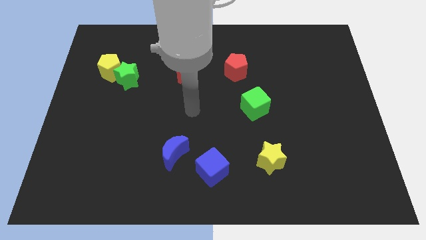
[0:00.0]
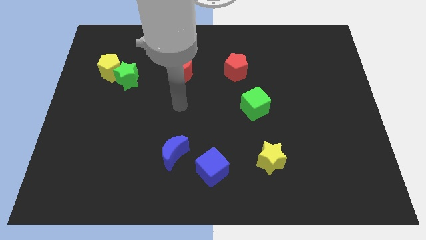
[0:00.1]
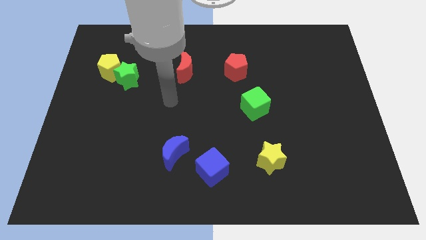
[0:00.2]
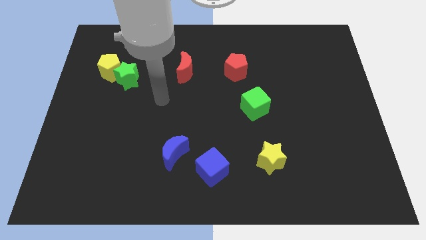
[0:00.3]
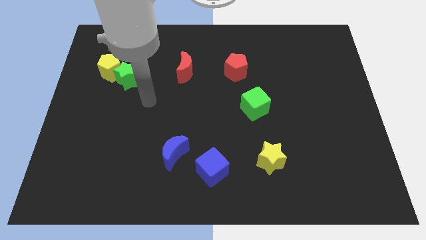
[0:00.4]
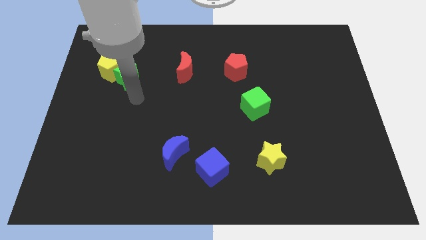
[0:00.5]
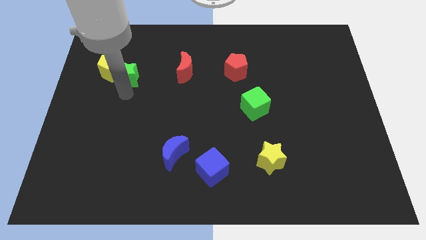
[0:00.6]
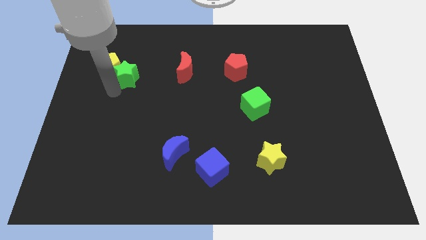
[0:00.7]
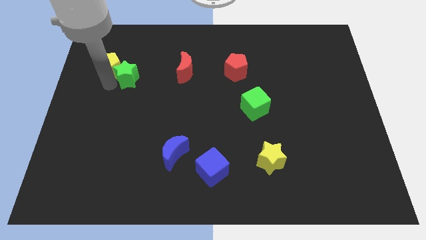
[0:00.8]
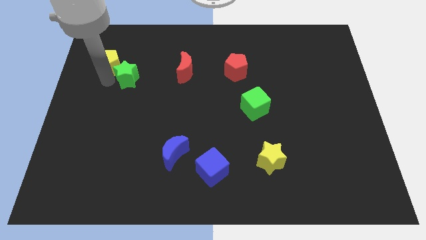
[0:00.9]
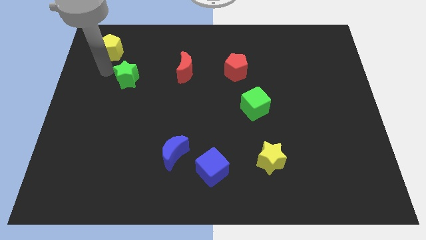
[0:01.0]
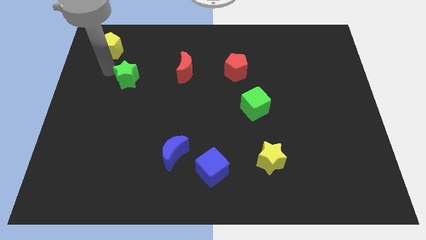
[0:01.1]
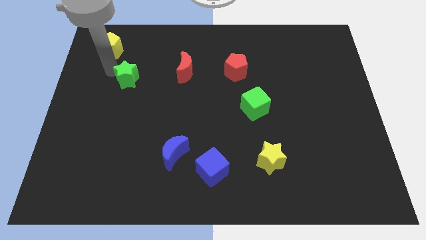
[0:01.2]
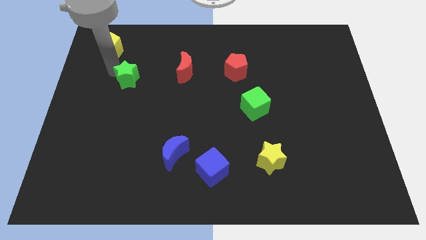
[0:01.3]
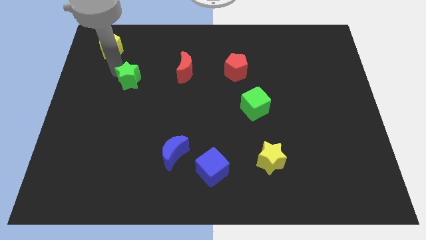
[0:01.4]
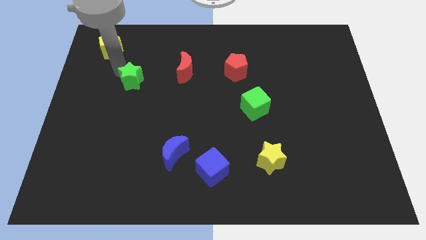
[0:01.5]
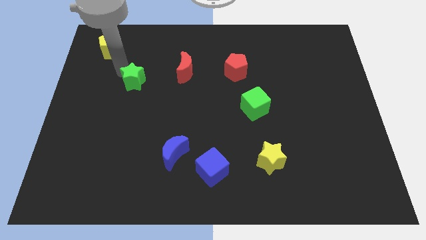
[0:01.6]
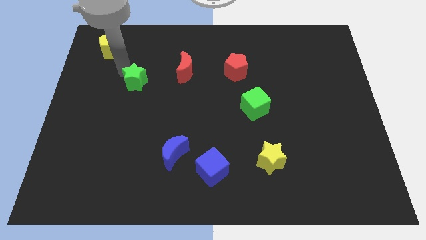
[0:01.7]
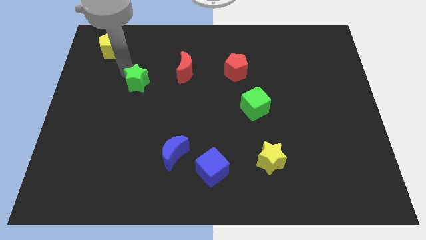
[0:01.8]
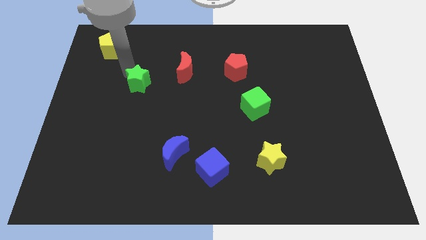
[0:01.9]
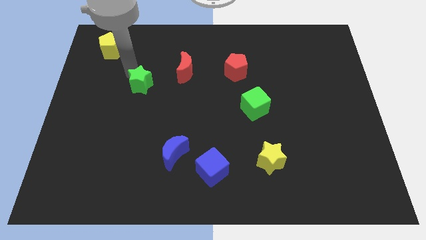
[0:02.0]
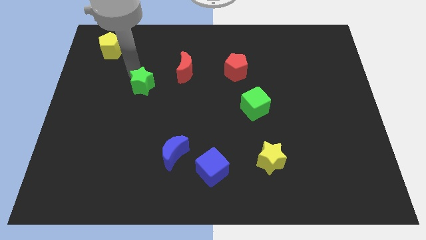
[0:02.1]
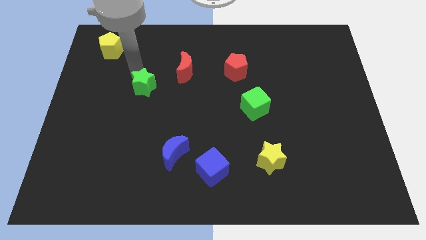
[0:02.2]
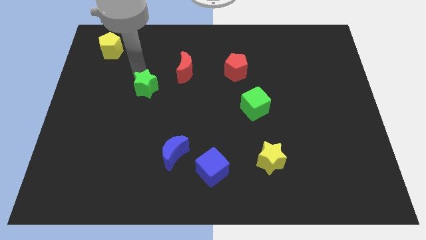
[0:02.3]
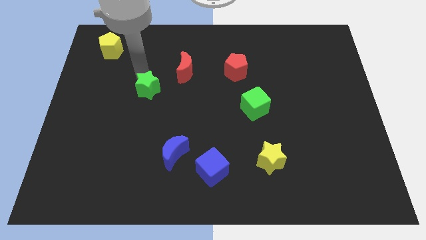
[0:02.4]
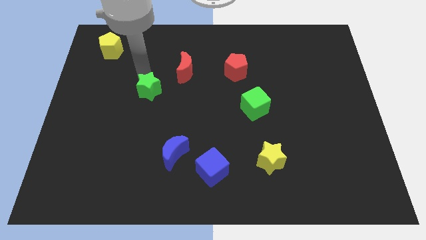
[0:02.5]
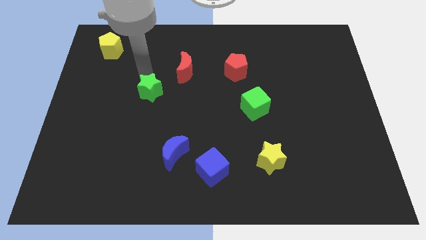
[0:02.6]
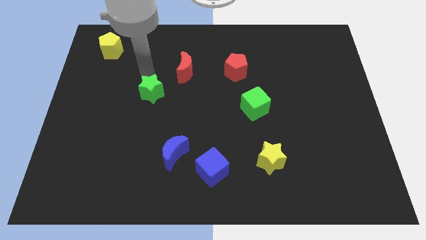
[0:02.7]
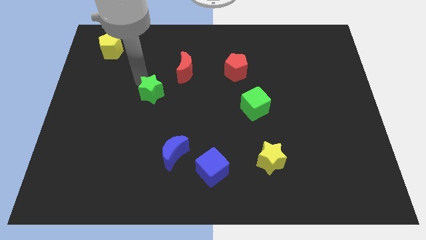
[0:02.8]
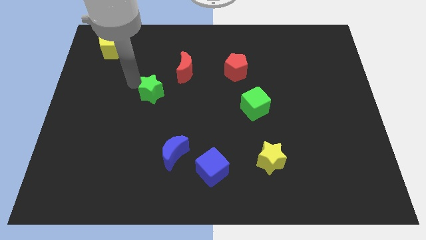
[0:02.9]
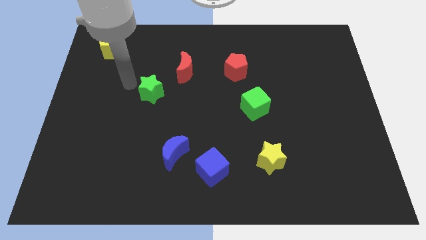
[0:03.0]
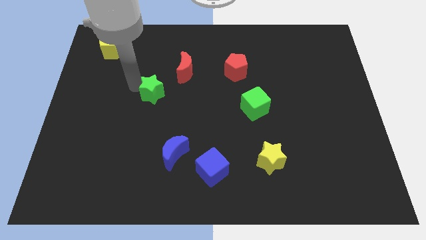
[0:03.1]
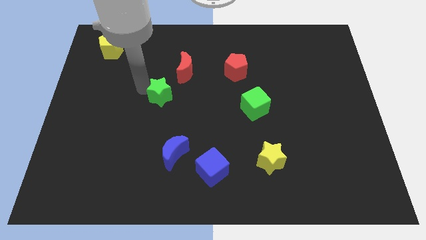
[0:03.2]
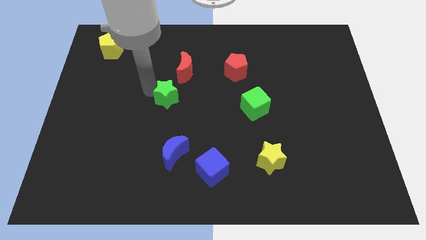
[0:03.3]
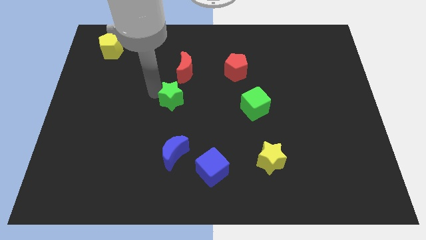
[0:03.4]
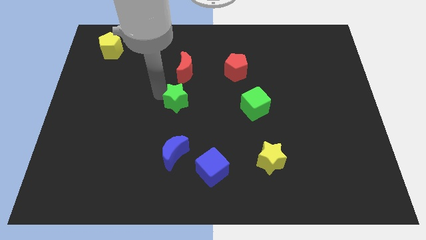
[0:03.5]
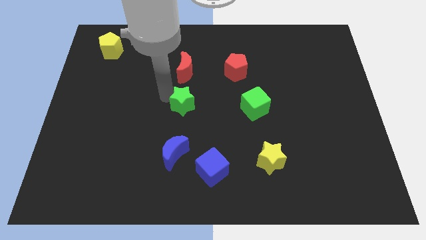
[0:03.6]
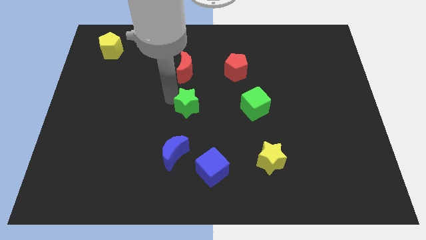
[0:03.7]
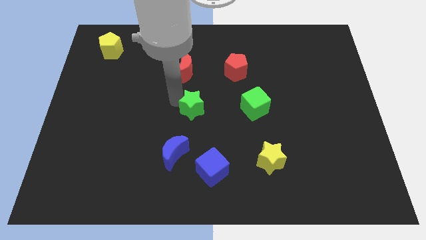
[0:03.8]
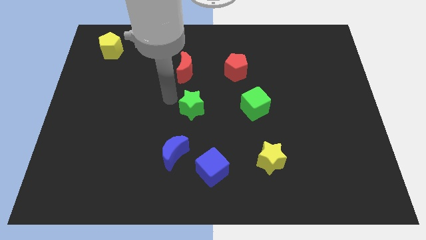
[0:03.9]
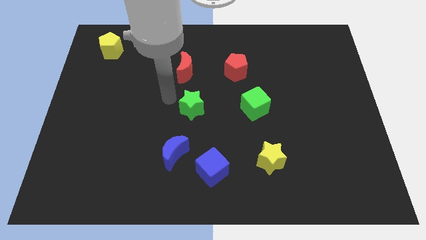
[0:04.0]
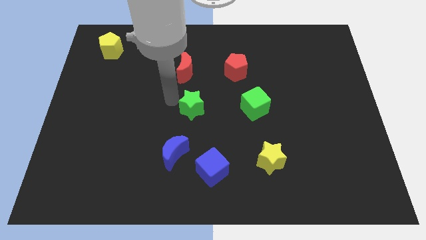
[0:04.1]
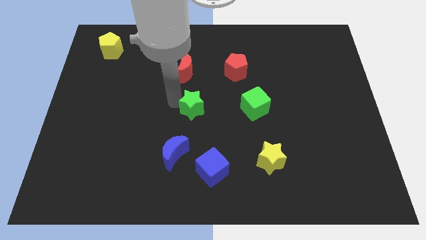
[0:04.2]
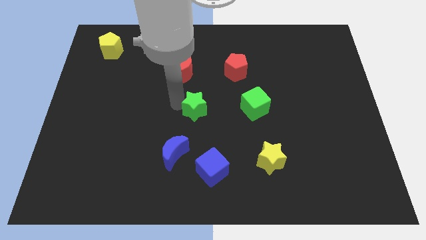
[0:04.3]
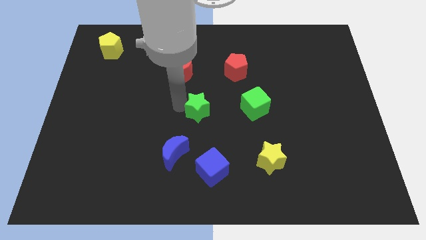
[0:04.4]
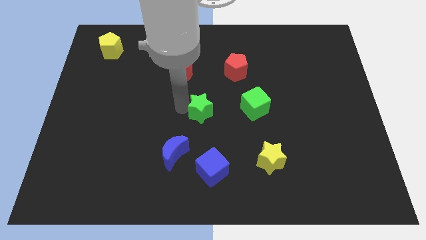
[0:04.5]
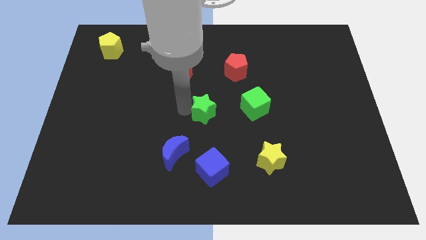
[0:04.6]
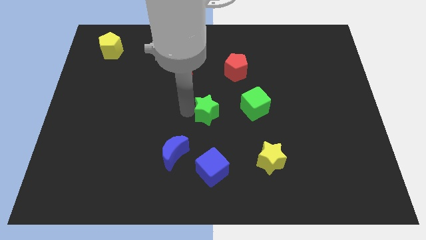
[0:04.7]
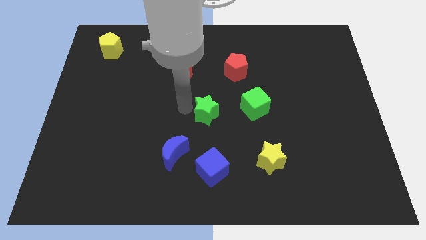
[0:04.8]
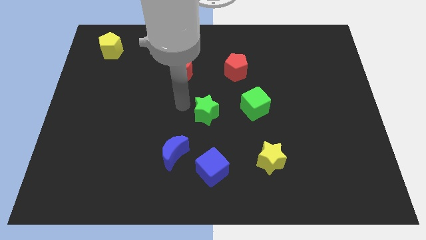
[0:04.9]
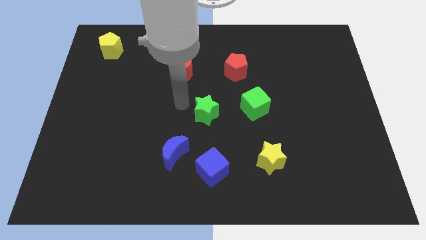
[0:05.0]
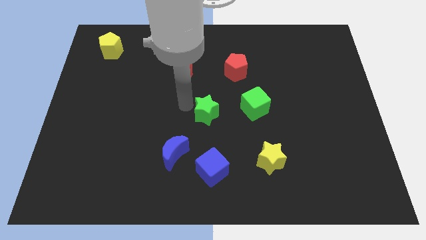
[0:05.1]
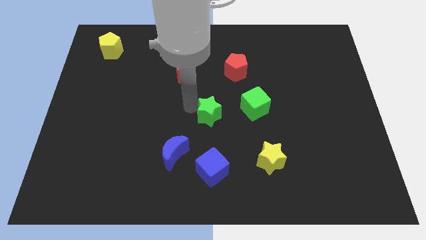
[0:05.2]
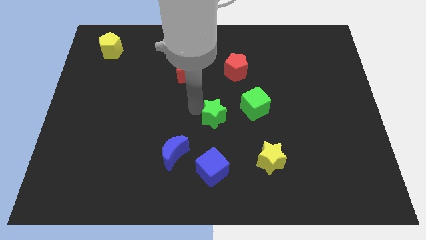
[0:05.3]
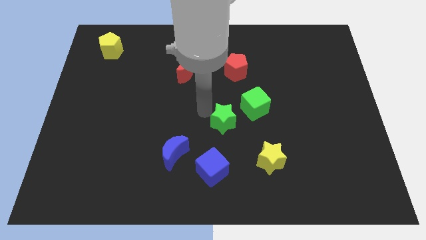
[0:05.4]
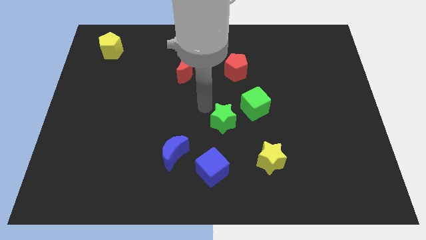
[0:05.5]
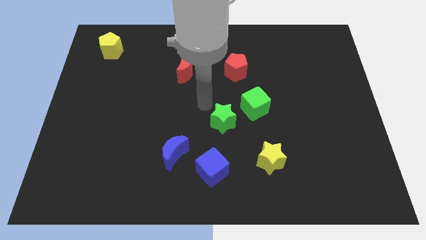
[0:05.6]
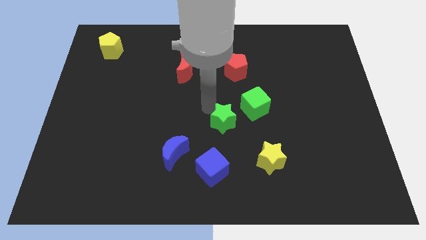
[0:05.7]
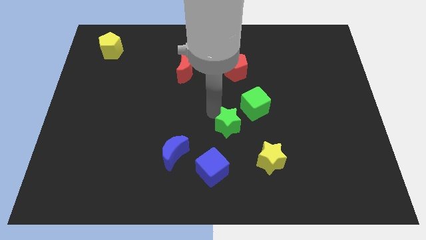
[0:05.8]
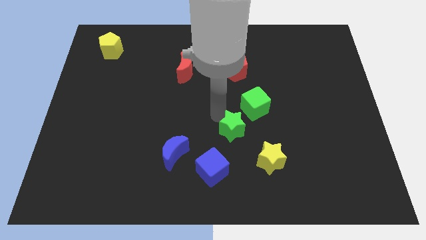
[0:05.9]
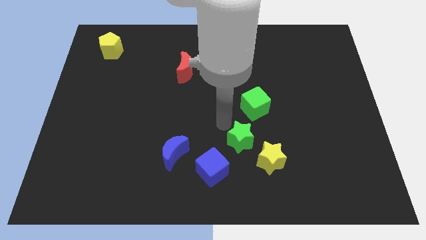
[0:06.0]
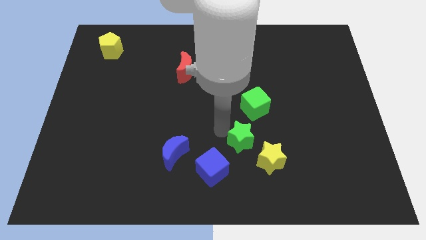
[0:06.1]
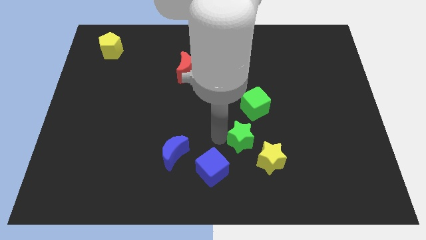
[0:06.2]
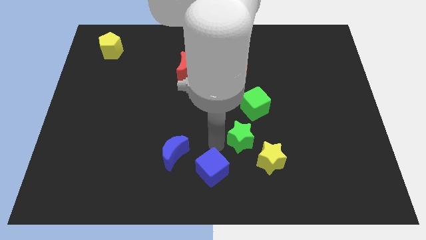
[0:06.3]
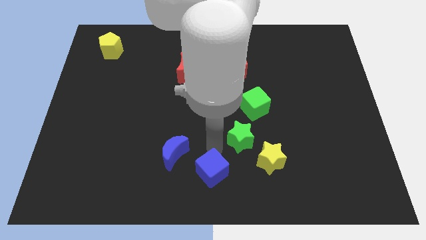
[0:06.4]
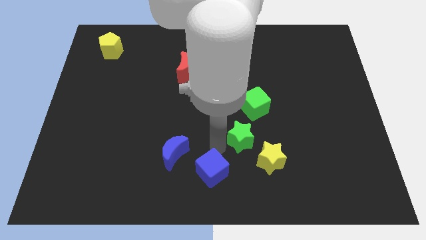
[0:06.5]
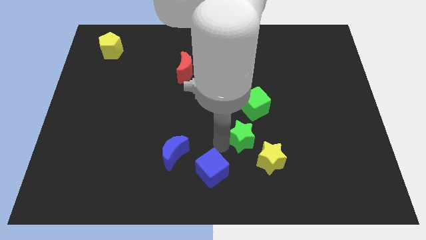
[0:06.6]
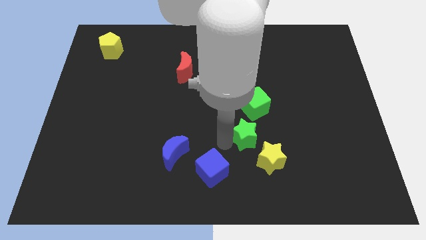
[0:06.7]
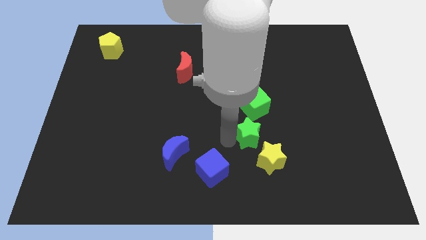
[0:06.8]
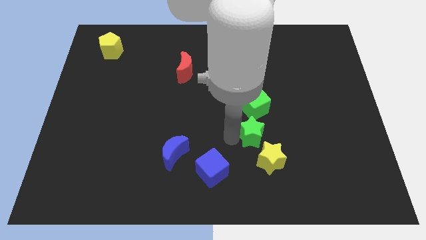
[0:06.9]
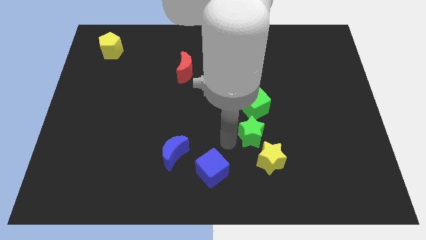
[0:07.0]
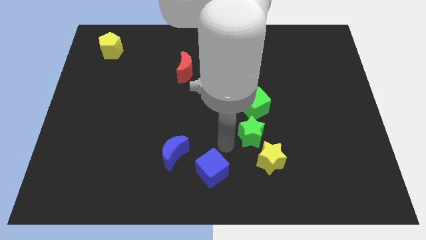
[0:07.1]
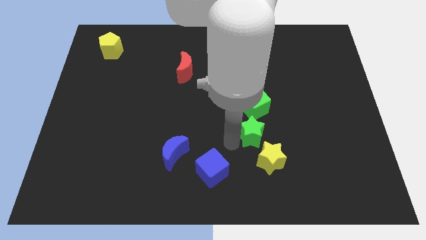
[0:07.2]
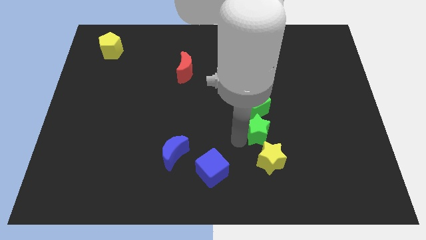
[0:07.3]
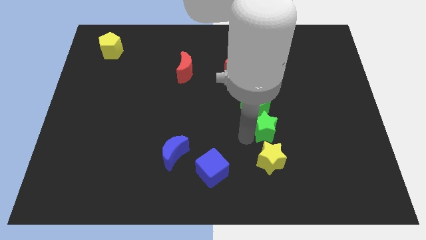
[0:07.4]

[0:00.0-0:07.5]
slide the green star to the bottom right side of the green cube
